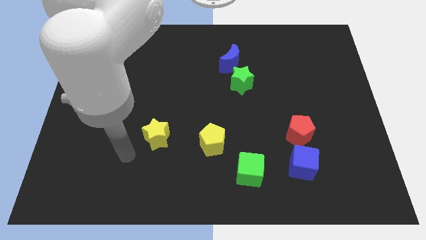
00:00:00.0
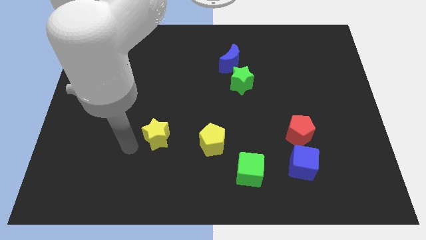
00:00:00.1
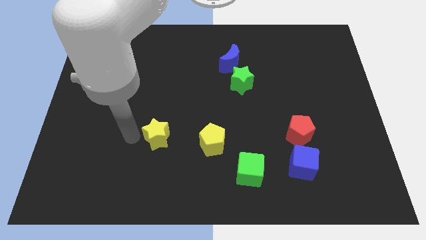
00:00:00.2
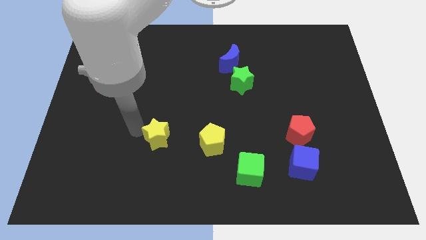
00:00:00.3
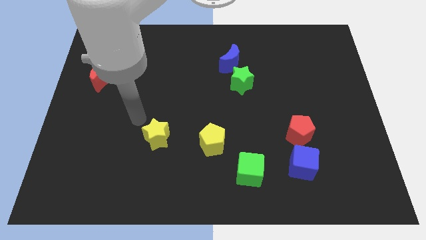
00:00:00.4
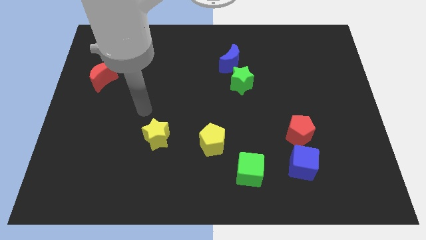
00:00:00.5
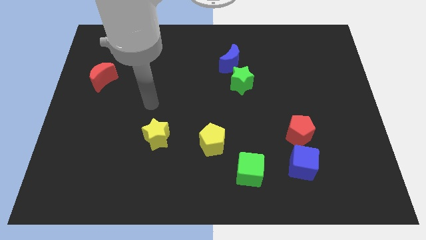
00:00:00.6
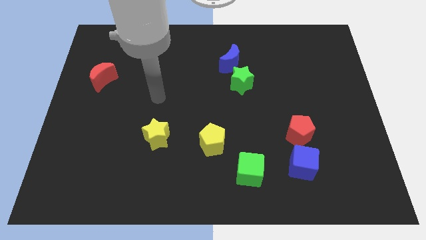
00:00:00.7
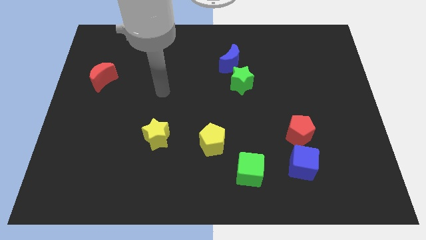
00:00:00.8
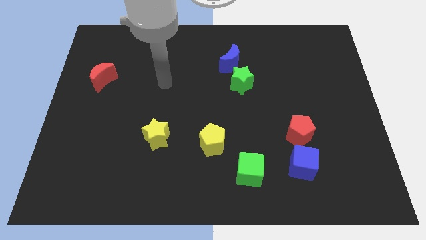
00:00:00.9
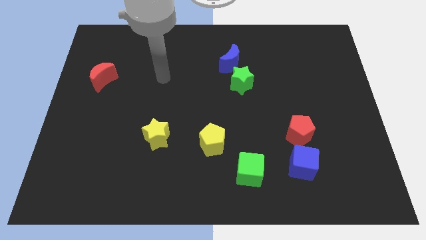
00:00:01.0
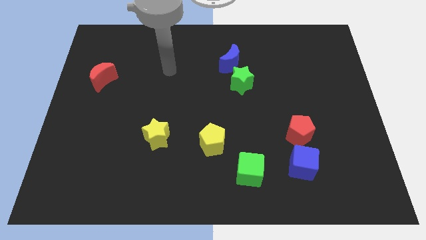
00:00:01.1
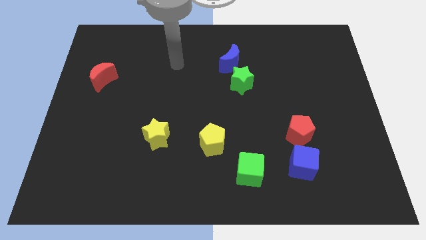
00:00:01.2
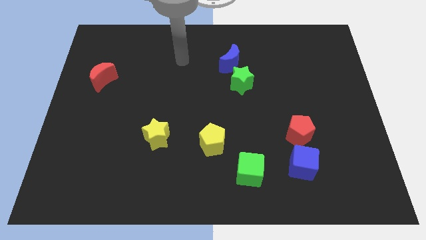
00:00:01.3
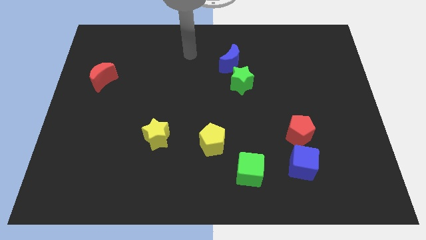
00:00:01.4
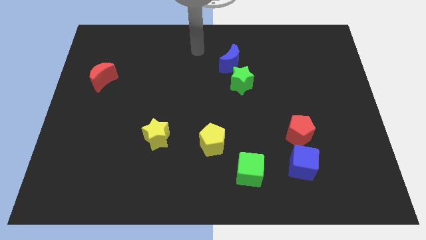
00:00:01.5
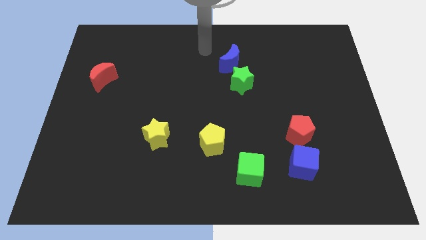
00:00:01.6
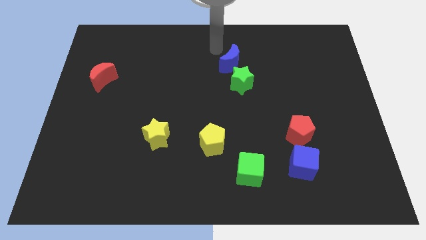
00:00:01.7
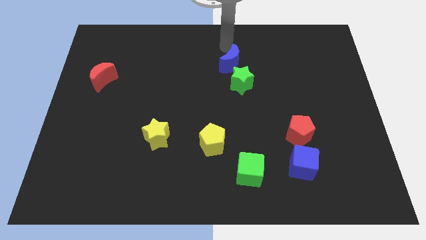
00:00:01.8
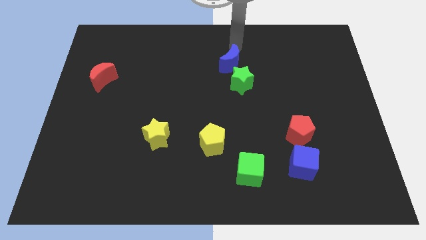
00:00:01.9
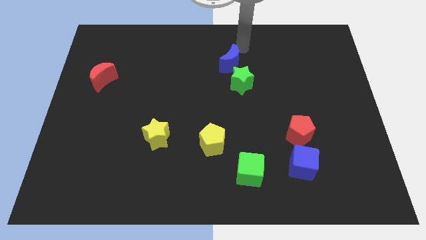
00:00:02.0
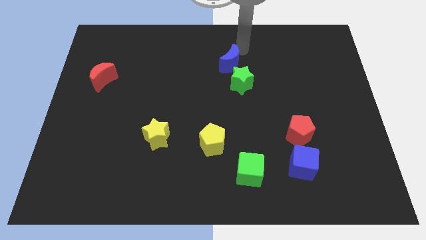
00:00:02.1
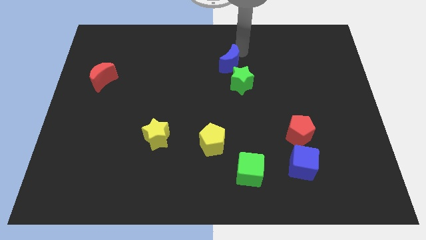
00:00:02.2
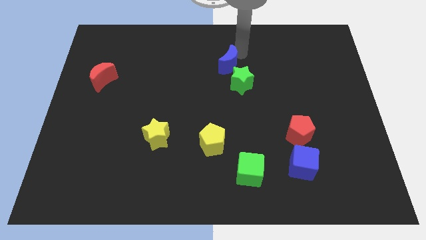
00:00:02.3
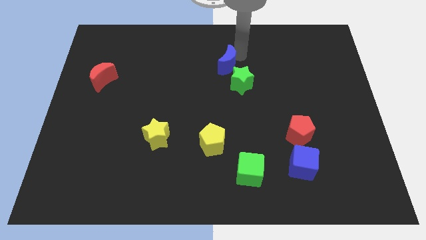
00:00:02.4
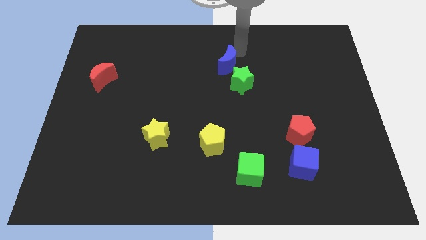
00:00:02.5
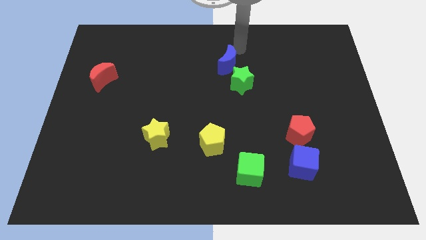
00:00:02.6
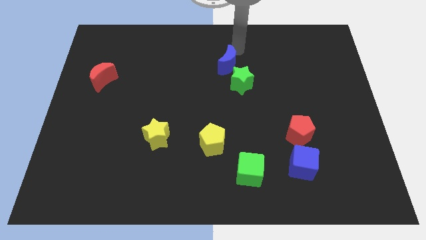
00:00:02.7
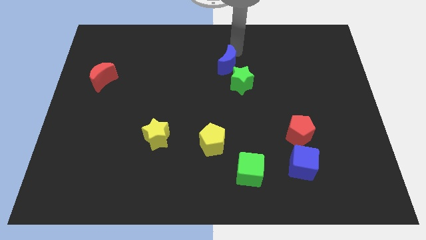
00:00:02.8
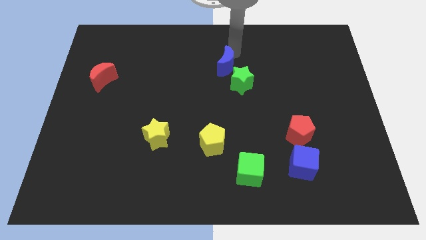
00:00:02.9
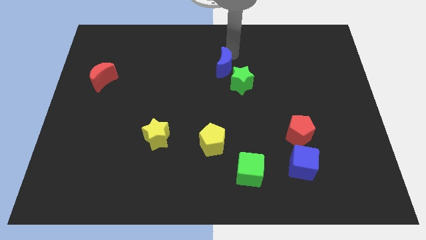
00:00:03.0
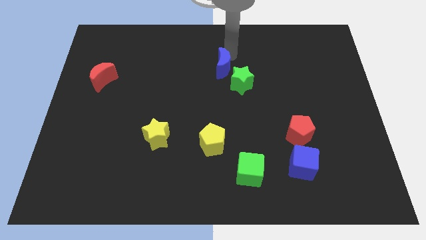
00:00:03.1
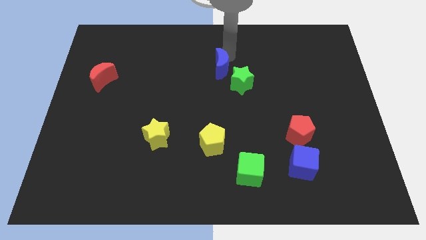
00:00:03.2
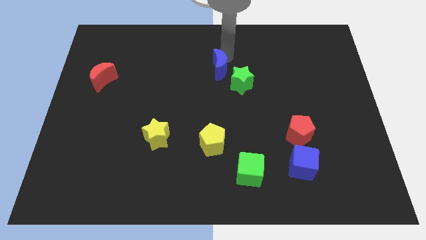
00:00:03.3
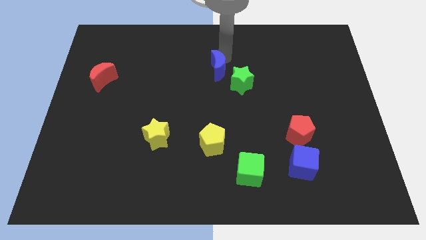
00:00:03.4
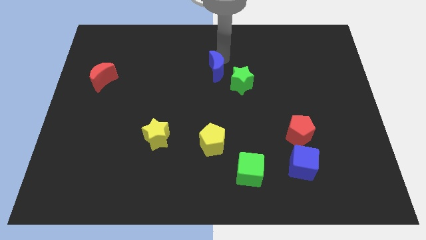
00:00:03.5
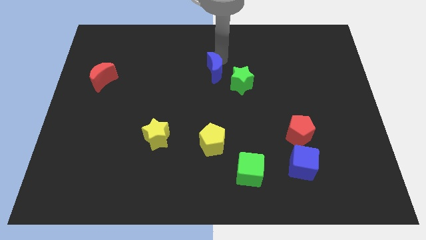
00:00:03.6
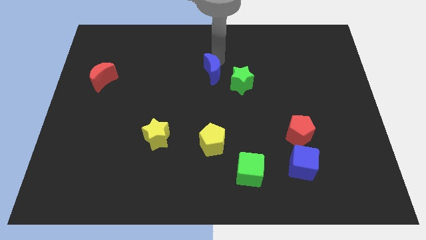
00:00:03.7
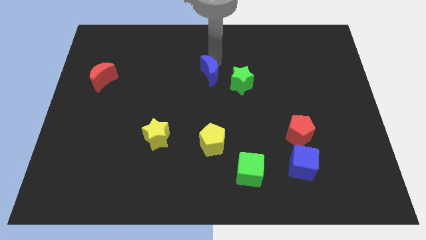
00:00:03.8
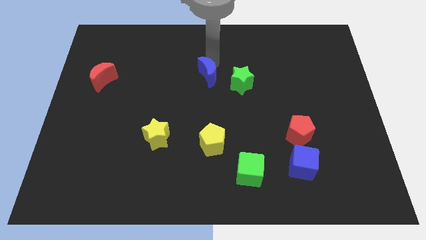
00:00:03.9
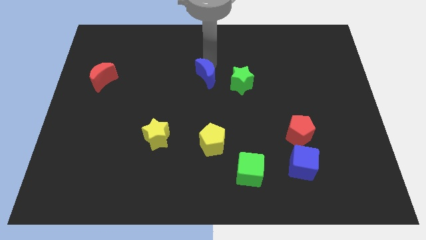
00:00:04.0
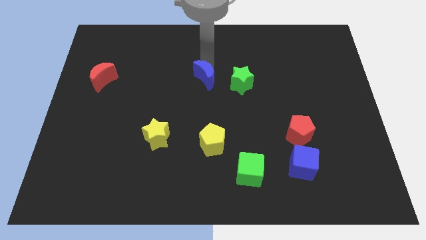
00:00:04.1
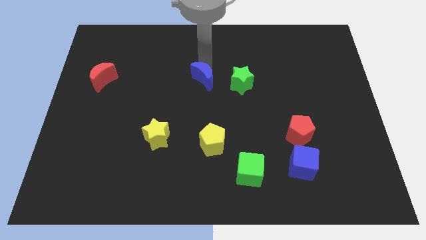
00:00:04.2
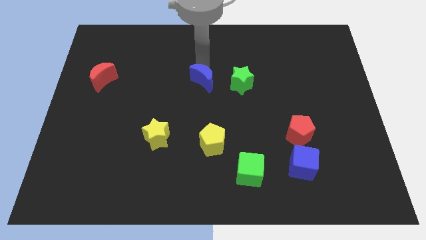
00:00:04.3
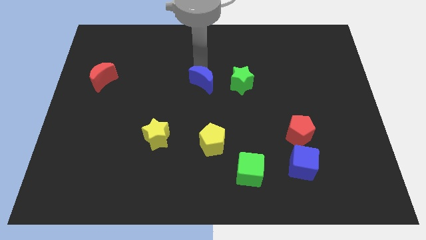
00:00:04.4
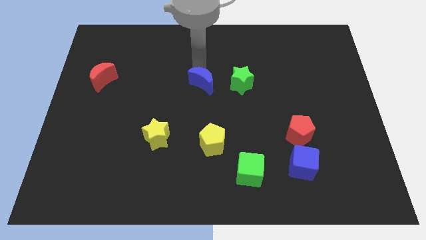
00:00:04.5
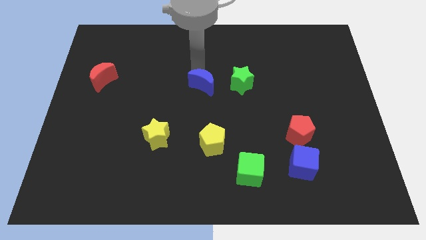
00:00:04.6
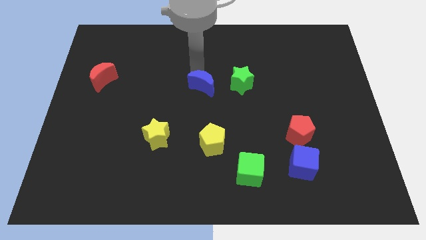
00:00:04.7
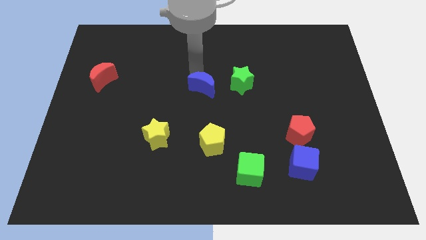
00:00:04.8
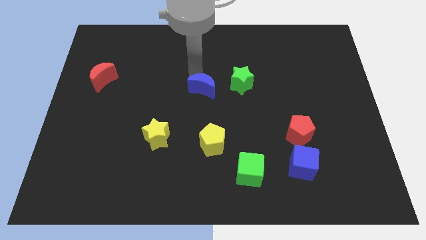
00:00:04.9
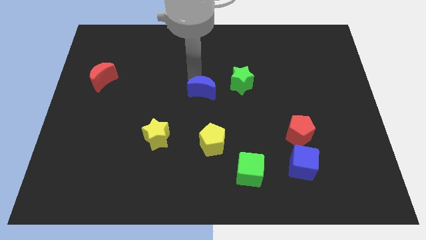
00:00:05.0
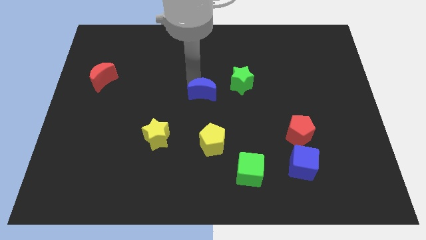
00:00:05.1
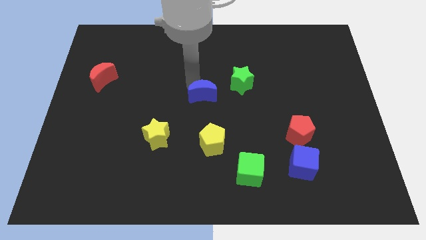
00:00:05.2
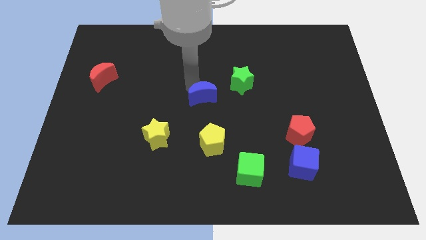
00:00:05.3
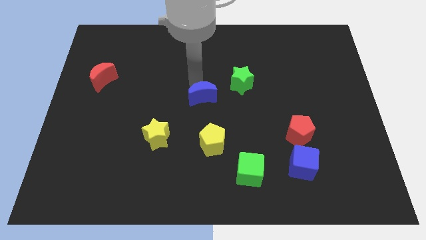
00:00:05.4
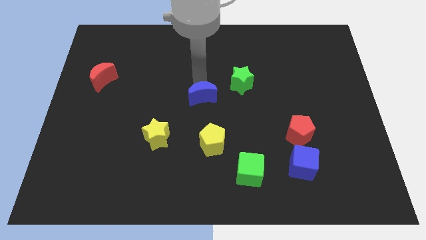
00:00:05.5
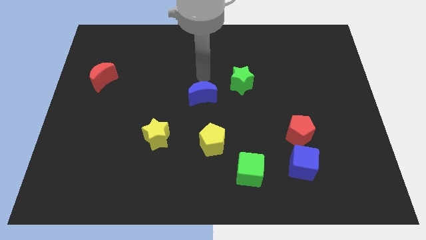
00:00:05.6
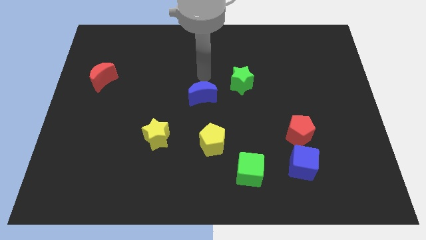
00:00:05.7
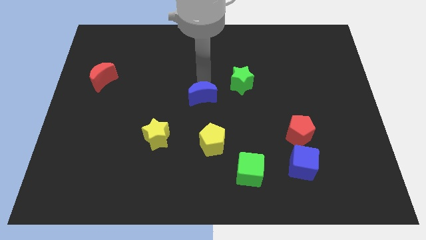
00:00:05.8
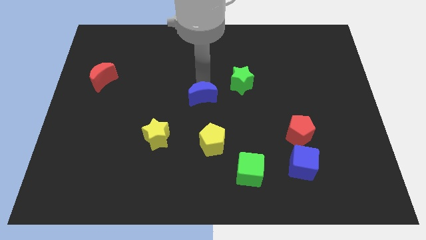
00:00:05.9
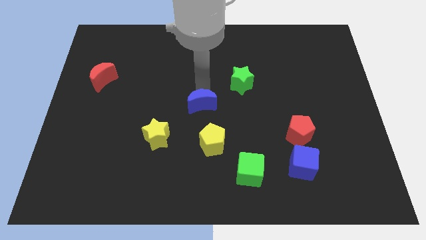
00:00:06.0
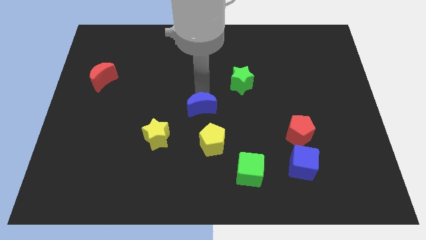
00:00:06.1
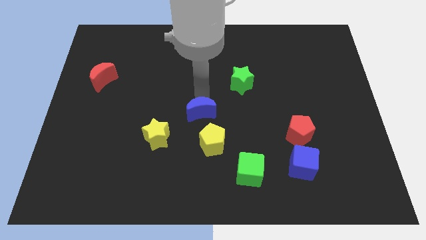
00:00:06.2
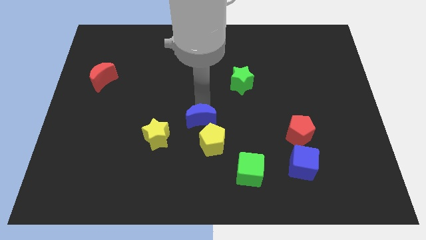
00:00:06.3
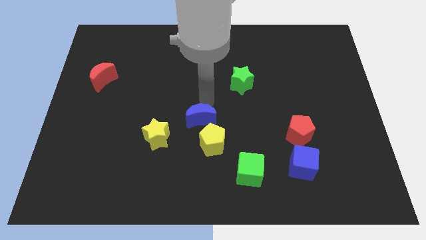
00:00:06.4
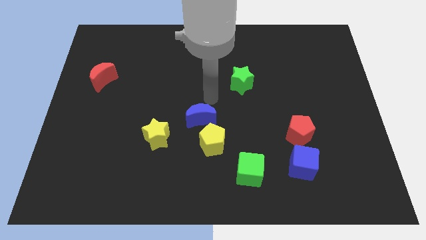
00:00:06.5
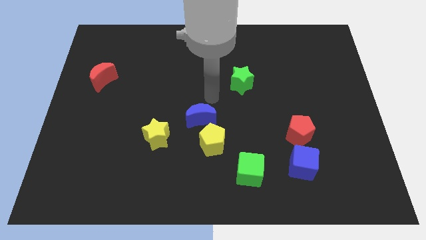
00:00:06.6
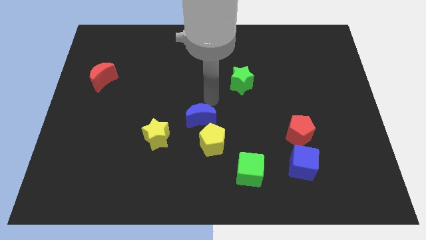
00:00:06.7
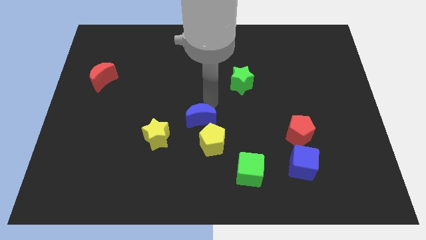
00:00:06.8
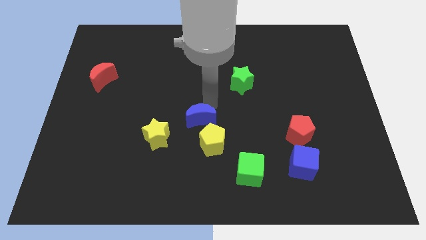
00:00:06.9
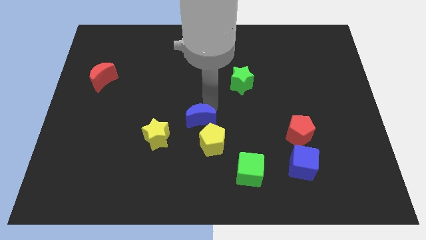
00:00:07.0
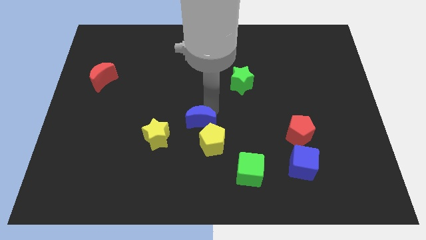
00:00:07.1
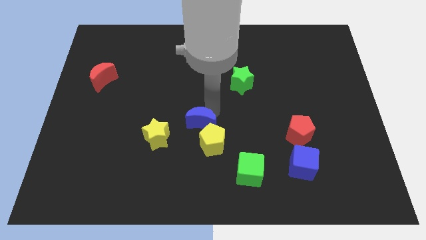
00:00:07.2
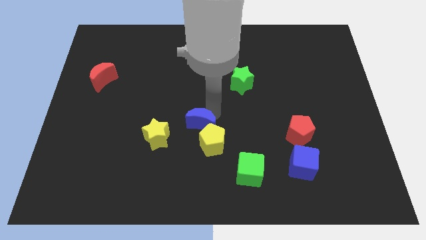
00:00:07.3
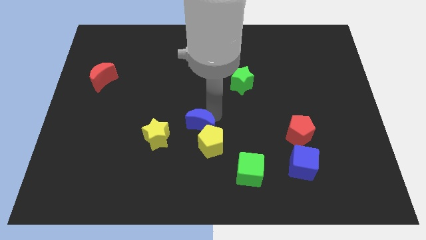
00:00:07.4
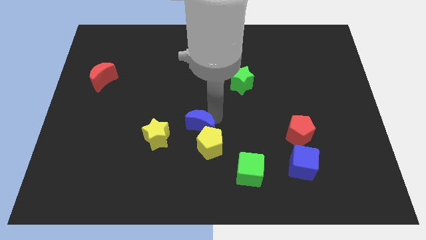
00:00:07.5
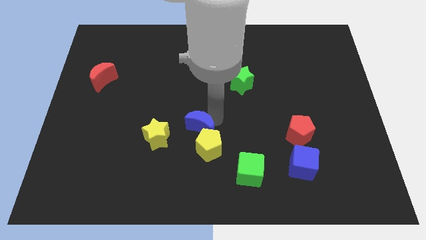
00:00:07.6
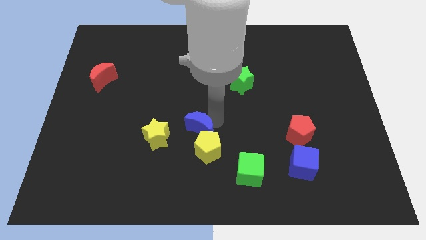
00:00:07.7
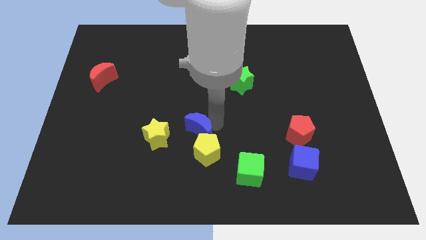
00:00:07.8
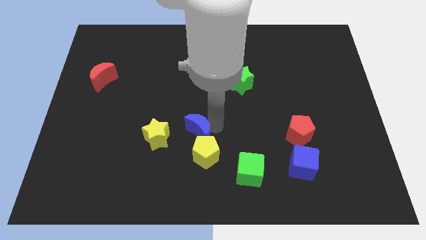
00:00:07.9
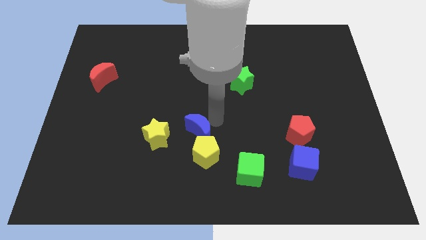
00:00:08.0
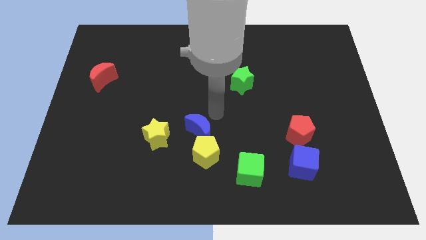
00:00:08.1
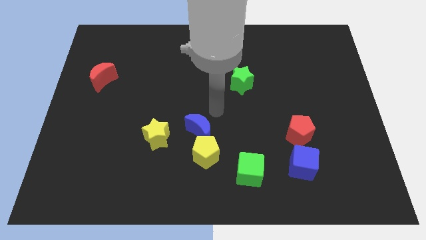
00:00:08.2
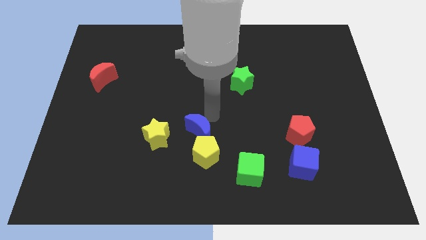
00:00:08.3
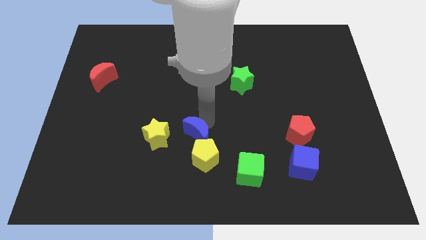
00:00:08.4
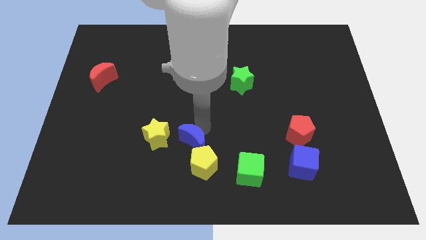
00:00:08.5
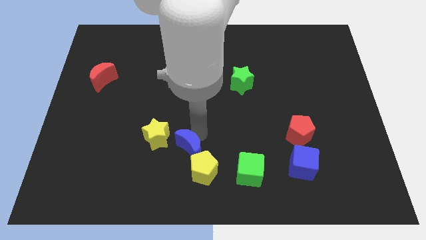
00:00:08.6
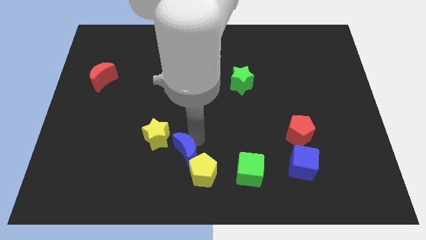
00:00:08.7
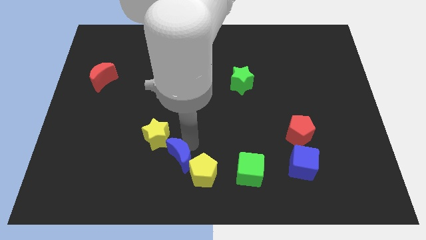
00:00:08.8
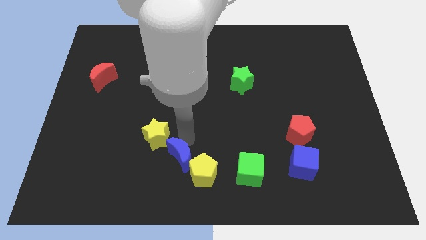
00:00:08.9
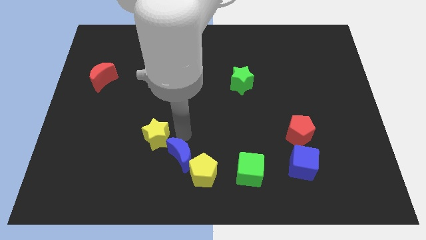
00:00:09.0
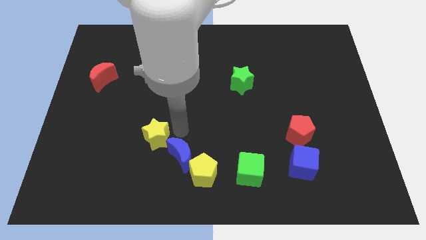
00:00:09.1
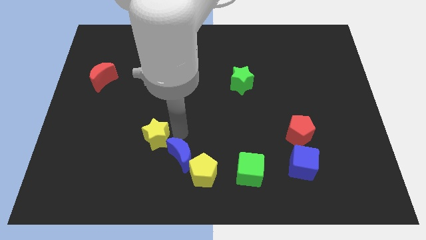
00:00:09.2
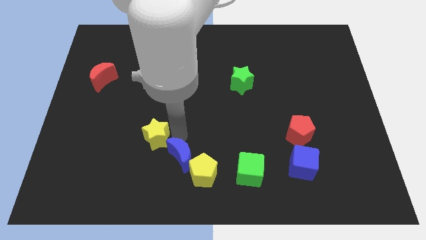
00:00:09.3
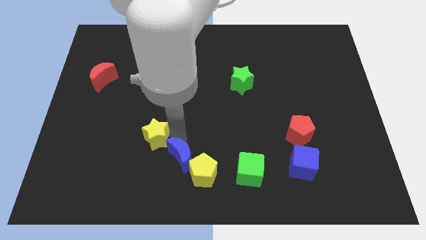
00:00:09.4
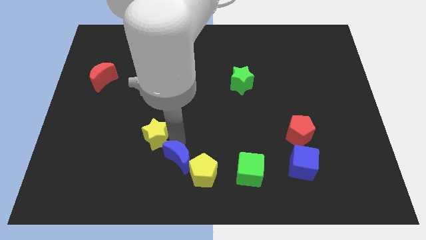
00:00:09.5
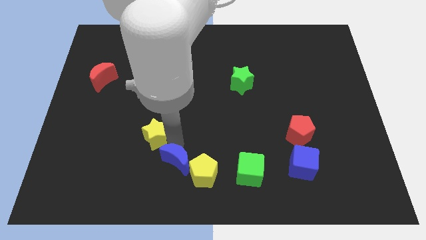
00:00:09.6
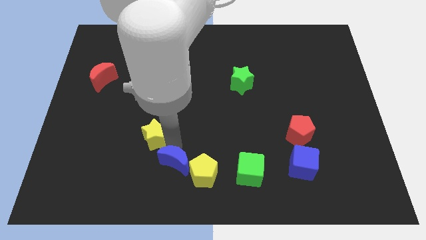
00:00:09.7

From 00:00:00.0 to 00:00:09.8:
slide the blue moon to the bottom side
